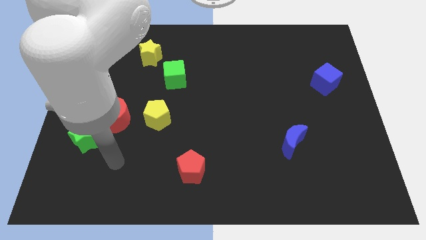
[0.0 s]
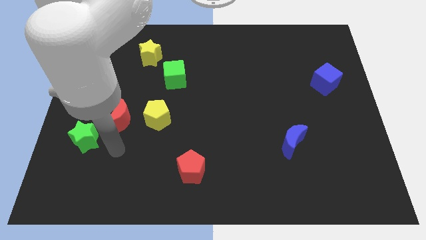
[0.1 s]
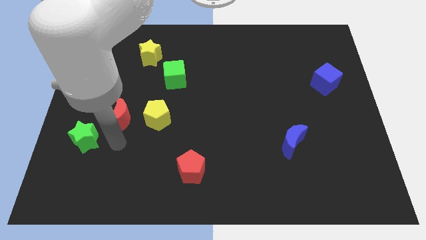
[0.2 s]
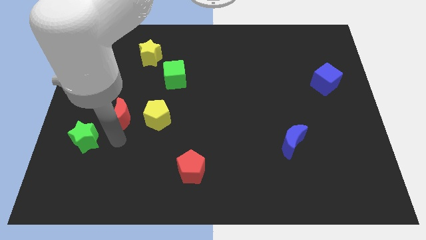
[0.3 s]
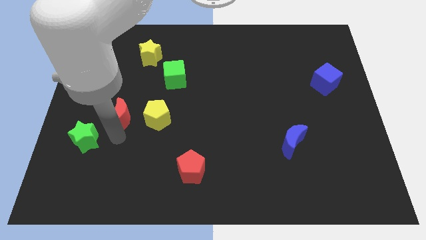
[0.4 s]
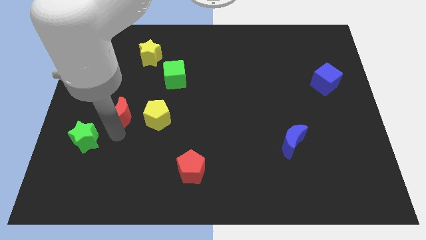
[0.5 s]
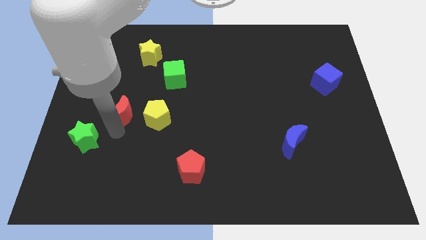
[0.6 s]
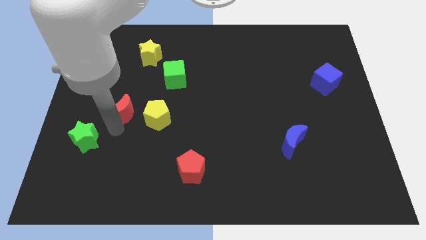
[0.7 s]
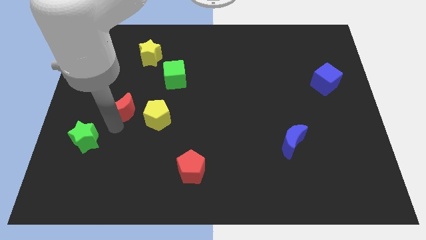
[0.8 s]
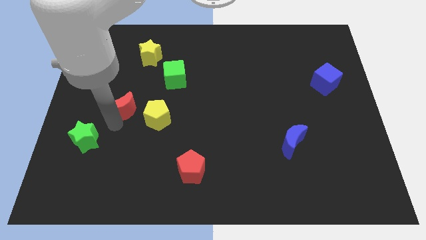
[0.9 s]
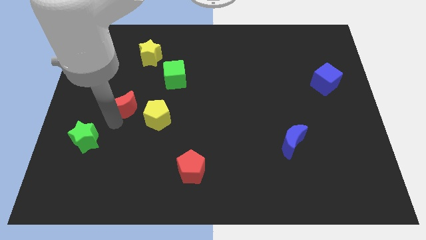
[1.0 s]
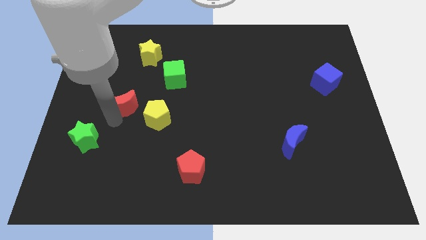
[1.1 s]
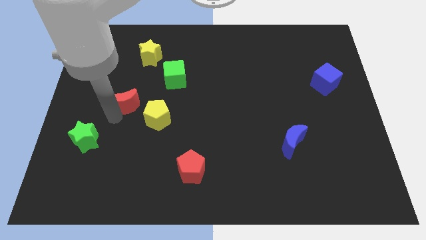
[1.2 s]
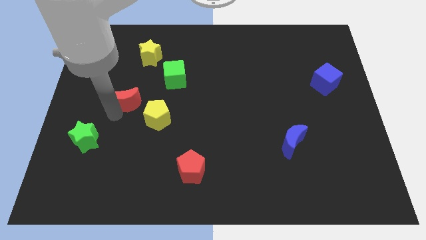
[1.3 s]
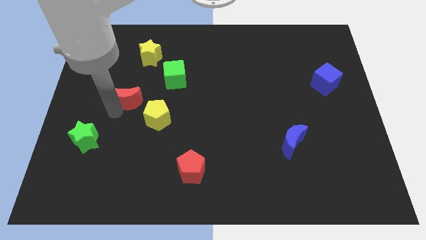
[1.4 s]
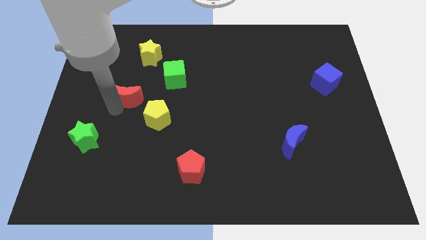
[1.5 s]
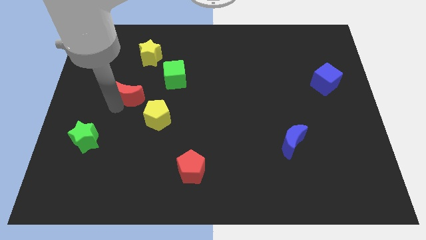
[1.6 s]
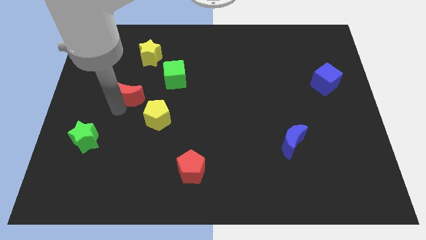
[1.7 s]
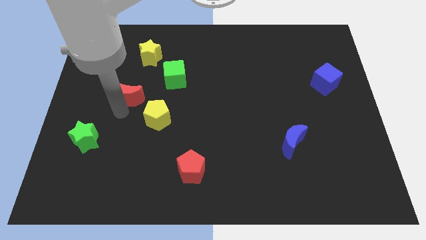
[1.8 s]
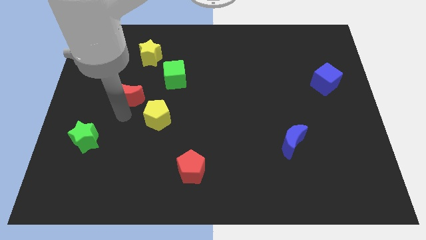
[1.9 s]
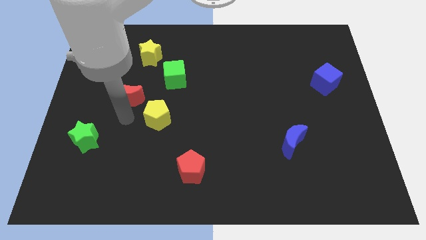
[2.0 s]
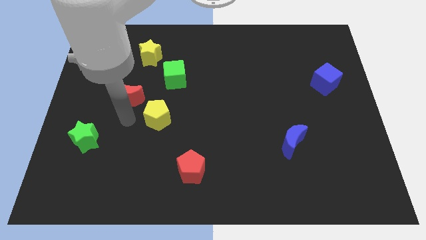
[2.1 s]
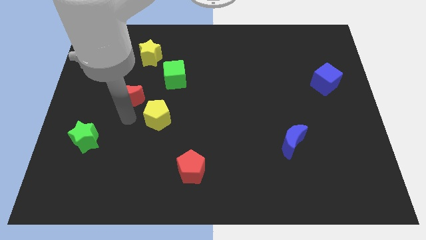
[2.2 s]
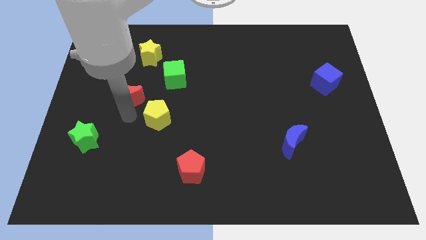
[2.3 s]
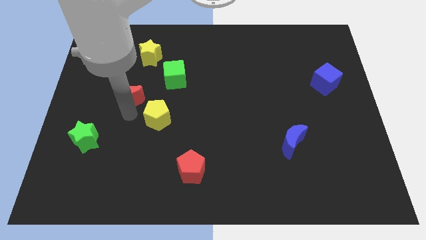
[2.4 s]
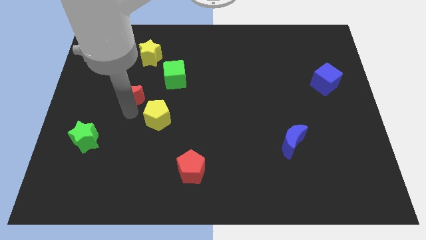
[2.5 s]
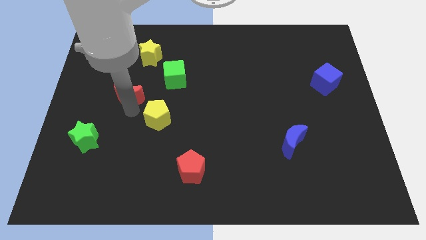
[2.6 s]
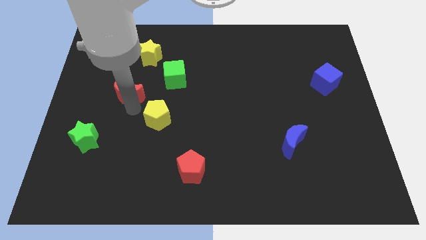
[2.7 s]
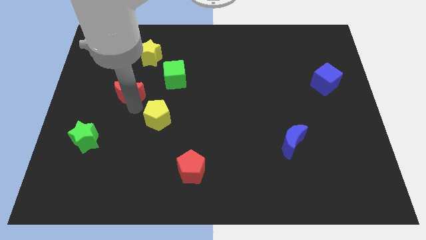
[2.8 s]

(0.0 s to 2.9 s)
push the red moon upwards a little

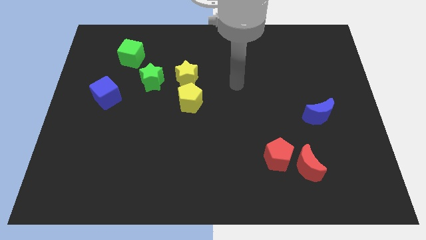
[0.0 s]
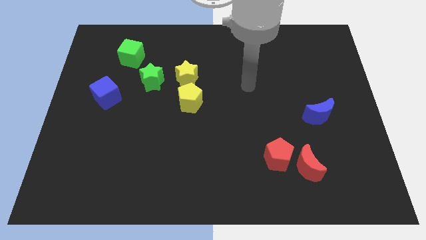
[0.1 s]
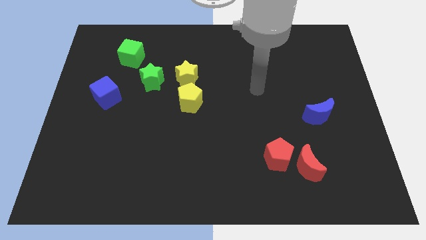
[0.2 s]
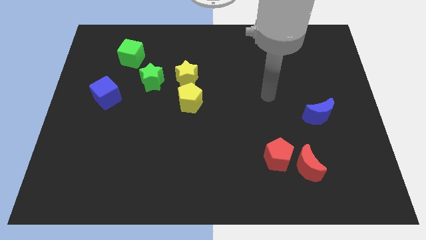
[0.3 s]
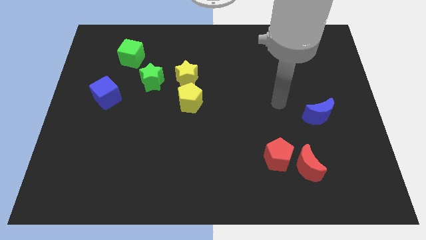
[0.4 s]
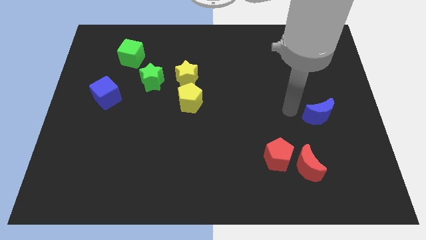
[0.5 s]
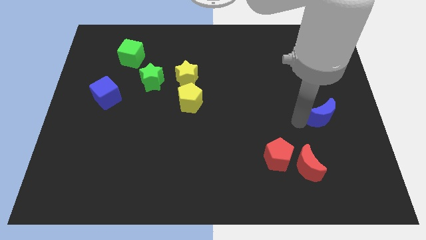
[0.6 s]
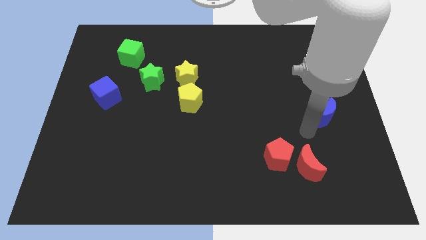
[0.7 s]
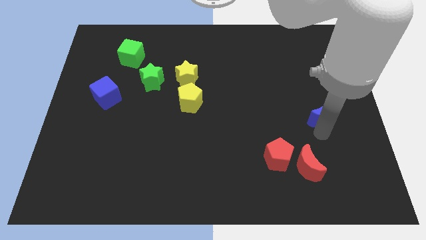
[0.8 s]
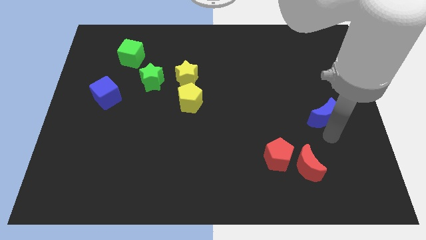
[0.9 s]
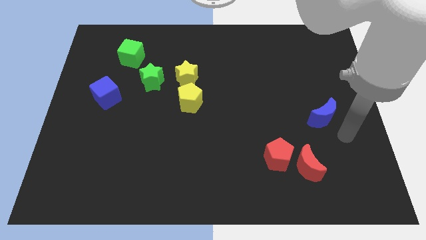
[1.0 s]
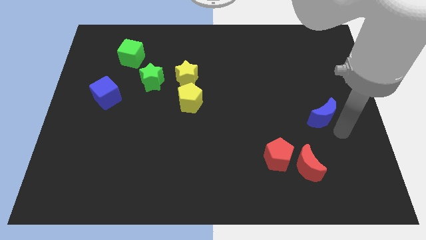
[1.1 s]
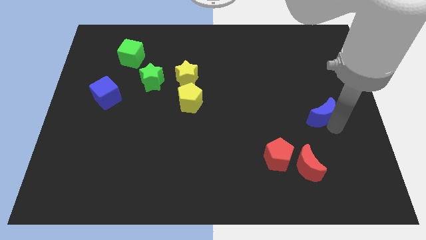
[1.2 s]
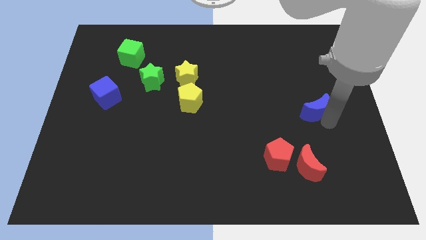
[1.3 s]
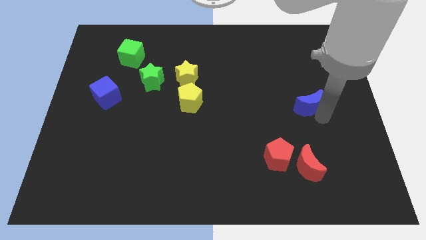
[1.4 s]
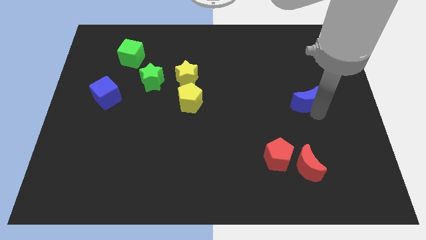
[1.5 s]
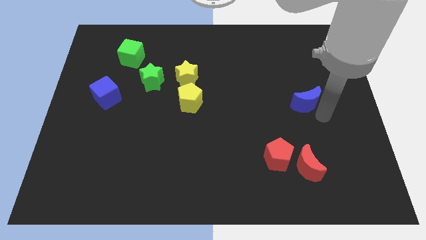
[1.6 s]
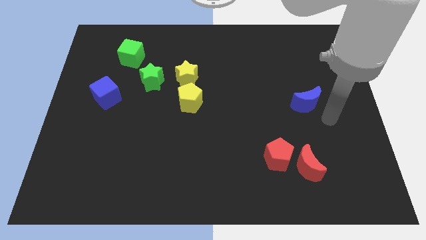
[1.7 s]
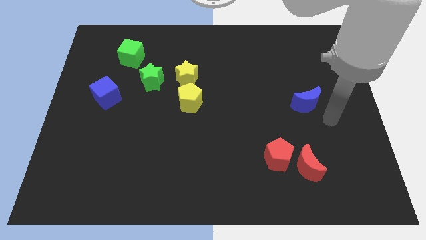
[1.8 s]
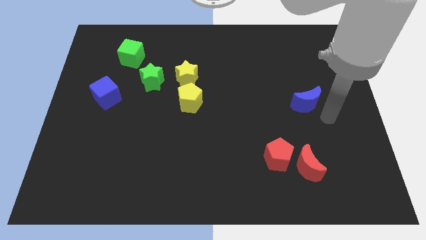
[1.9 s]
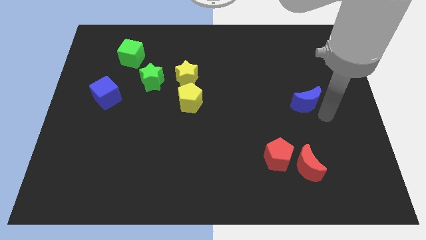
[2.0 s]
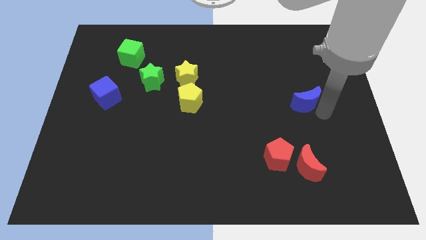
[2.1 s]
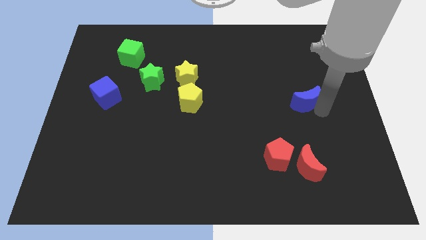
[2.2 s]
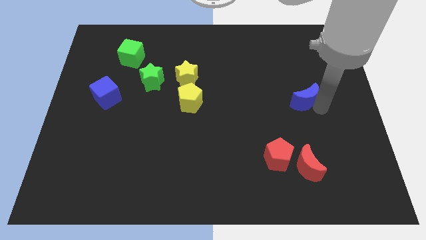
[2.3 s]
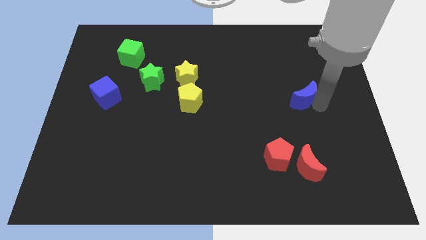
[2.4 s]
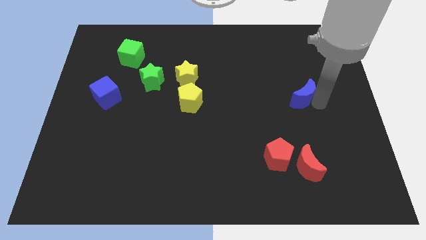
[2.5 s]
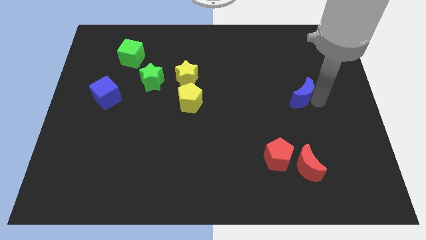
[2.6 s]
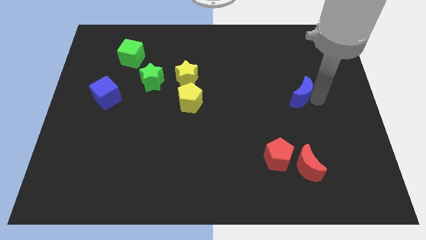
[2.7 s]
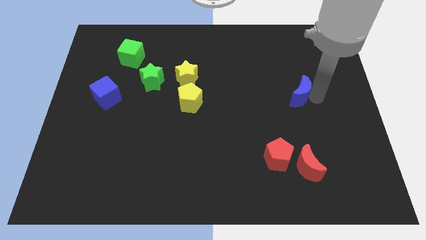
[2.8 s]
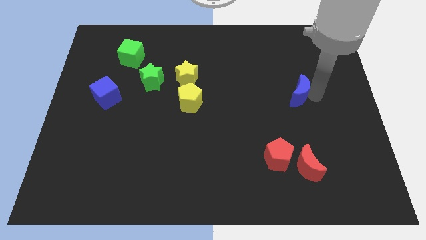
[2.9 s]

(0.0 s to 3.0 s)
slightly move the blue moon upwards and left diagonally

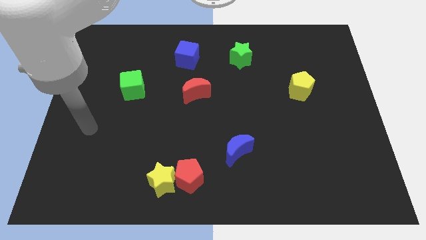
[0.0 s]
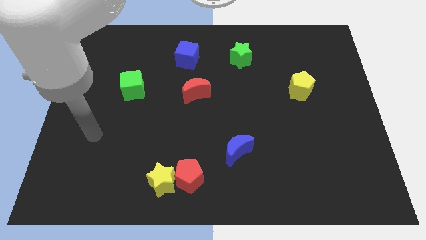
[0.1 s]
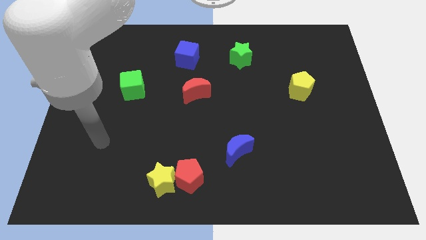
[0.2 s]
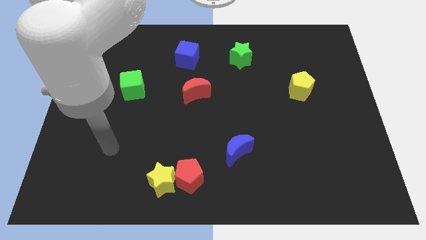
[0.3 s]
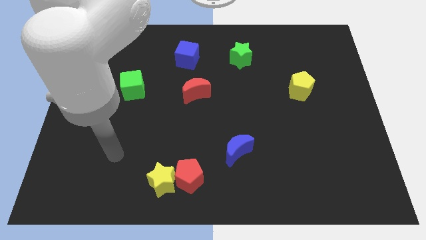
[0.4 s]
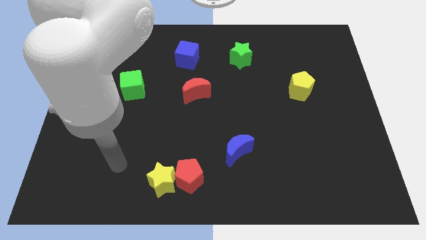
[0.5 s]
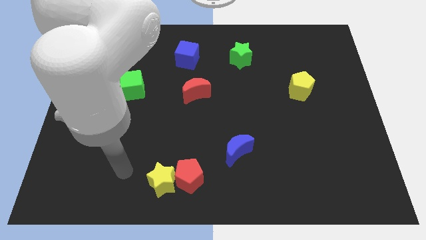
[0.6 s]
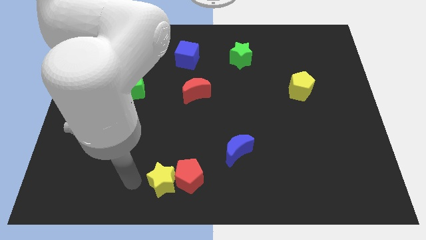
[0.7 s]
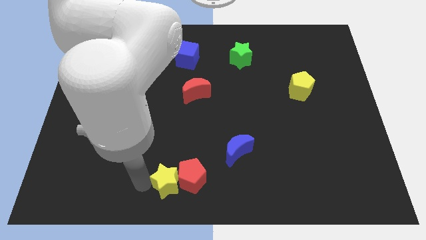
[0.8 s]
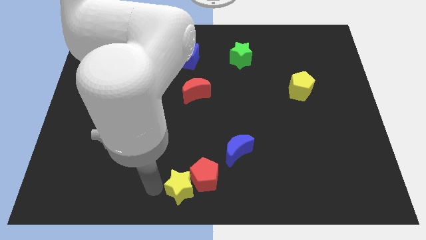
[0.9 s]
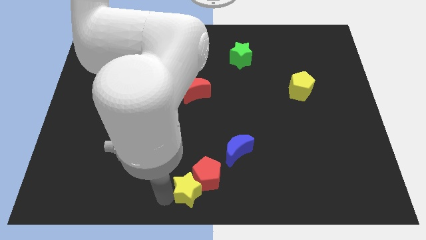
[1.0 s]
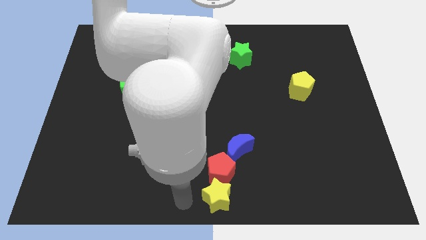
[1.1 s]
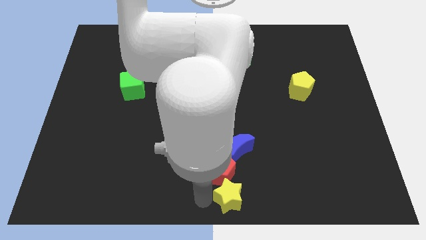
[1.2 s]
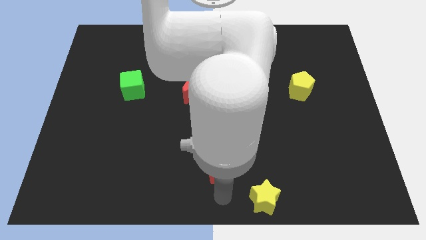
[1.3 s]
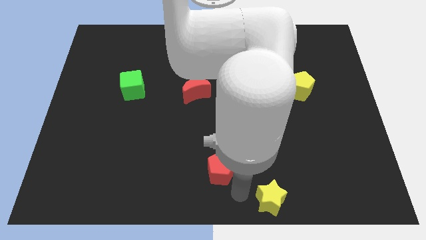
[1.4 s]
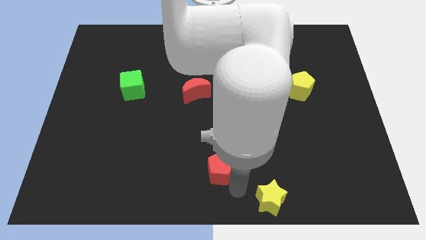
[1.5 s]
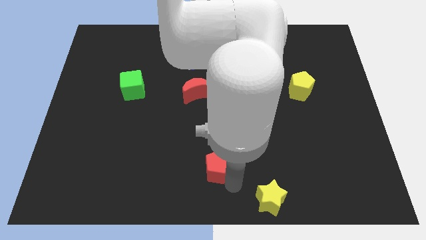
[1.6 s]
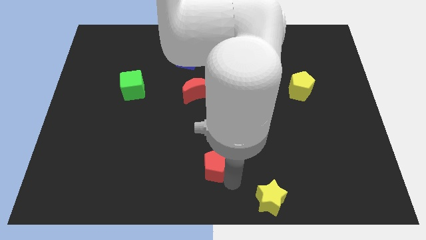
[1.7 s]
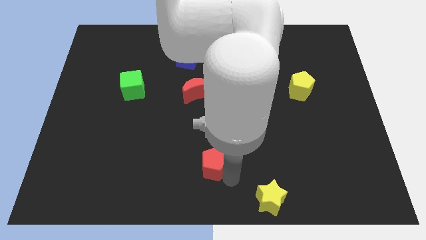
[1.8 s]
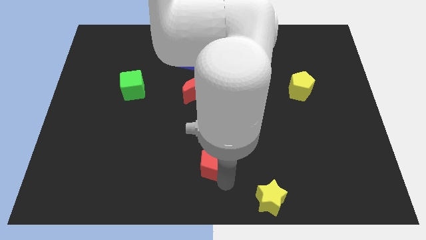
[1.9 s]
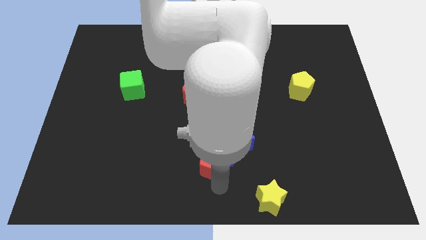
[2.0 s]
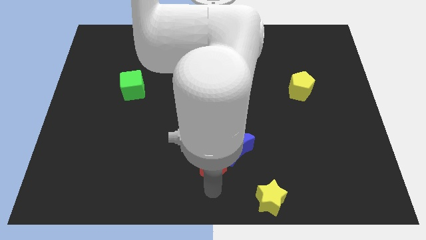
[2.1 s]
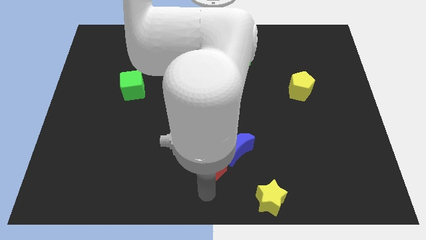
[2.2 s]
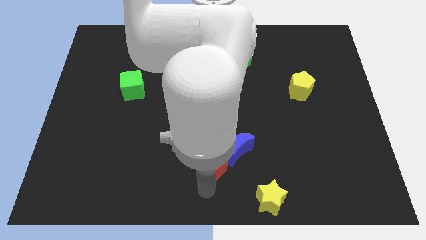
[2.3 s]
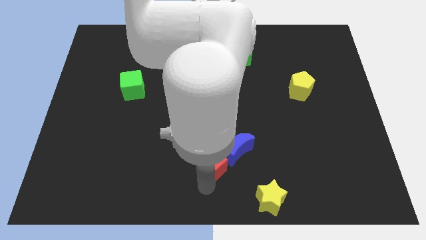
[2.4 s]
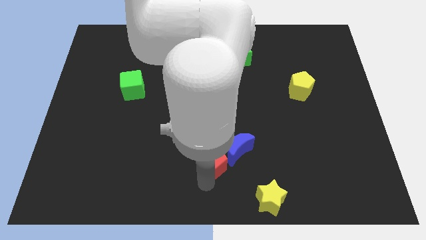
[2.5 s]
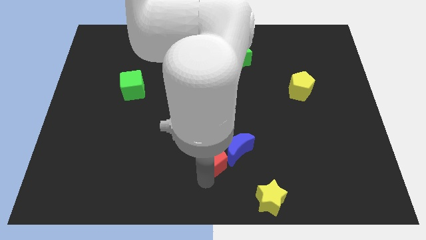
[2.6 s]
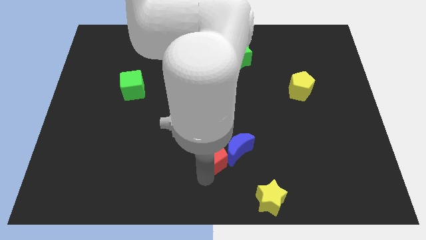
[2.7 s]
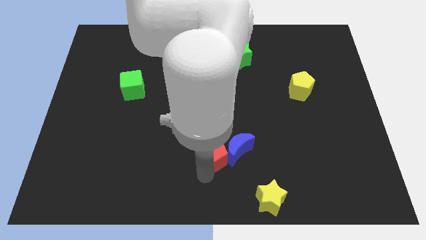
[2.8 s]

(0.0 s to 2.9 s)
slightly push the red pentagon diagonally up and to the right
